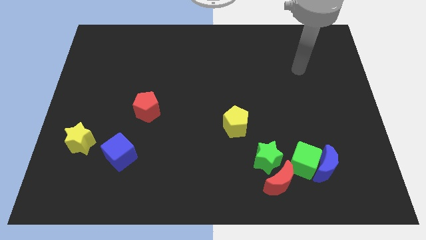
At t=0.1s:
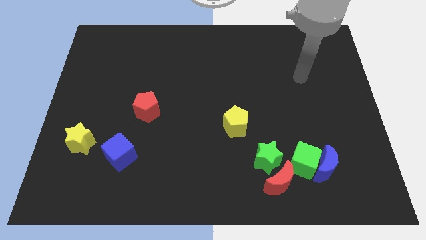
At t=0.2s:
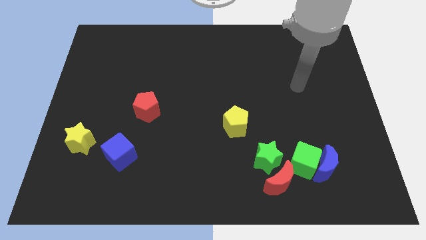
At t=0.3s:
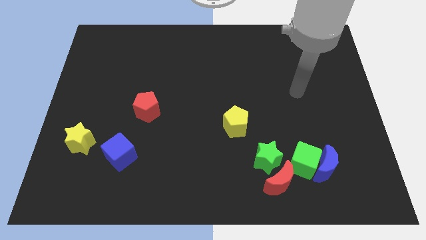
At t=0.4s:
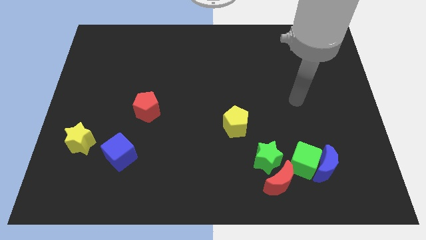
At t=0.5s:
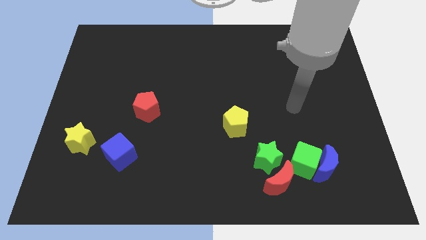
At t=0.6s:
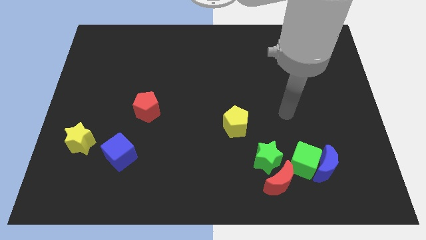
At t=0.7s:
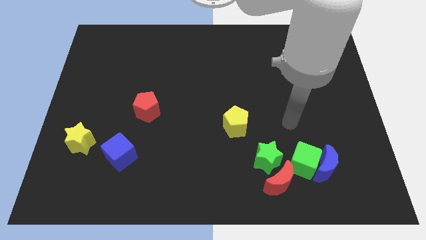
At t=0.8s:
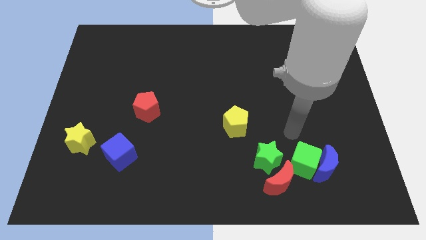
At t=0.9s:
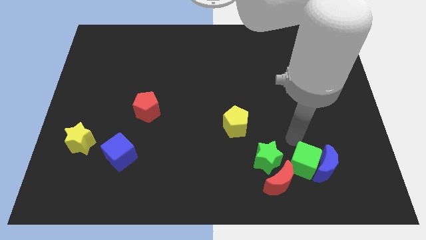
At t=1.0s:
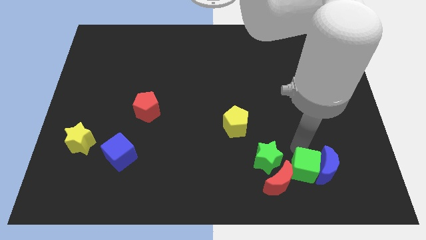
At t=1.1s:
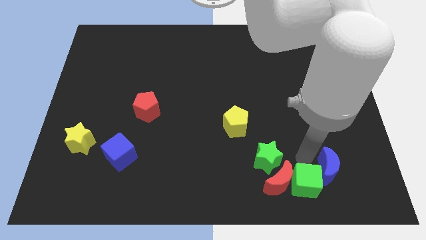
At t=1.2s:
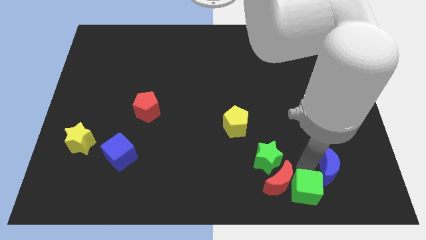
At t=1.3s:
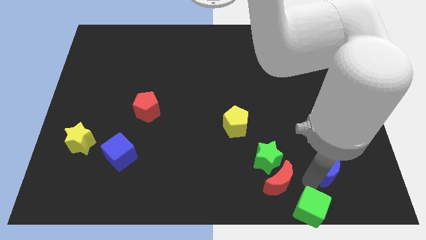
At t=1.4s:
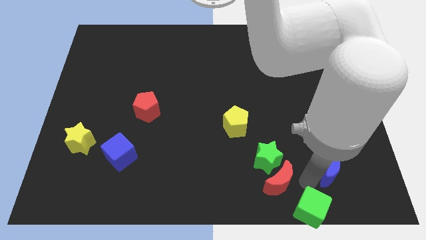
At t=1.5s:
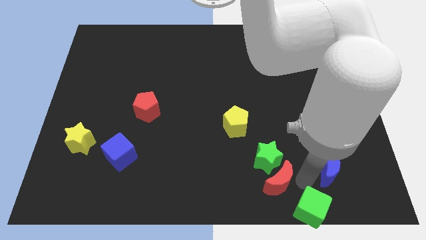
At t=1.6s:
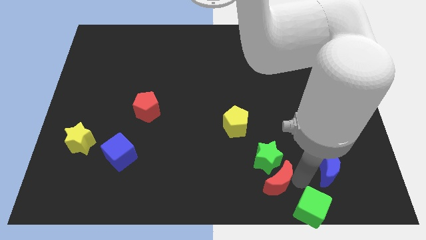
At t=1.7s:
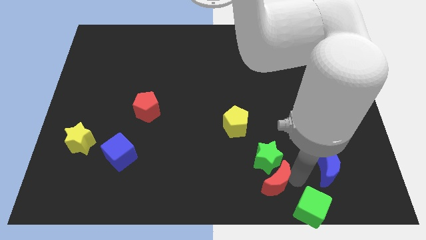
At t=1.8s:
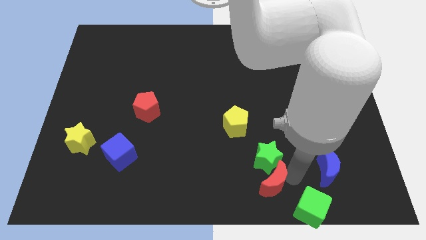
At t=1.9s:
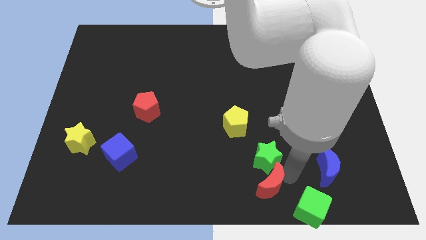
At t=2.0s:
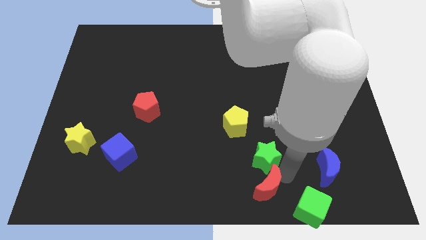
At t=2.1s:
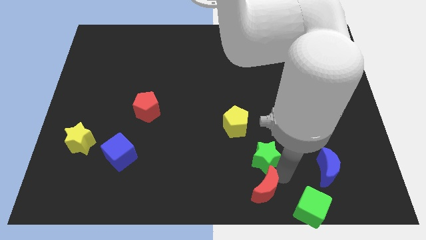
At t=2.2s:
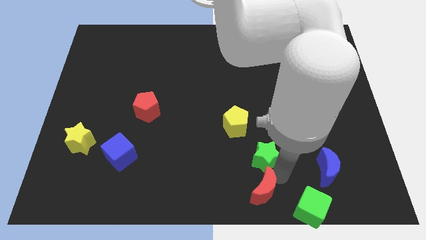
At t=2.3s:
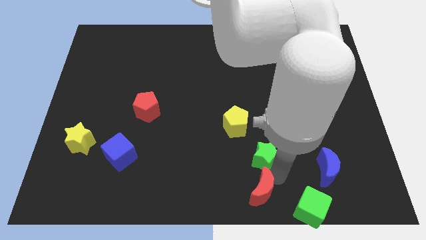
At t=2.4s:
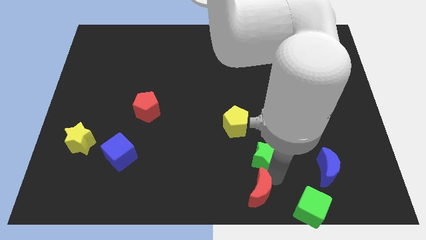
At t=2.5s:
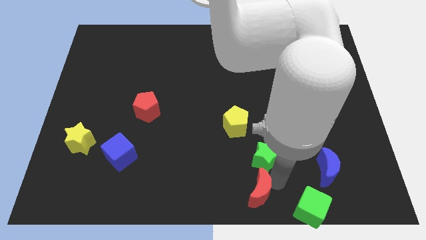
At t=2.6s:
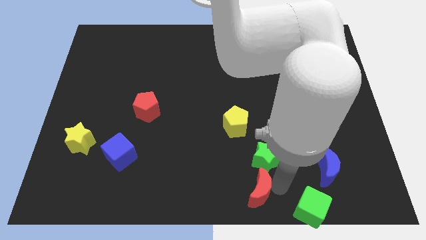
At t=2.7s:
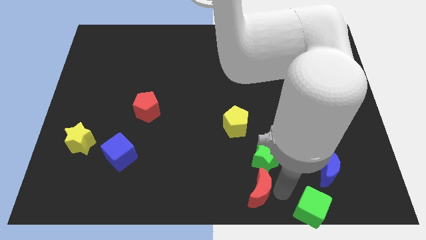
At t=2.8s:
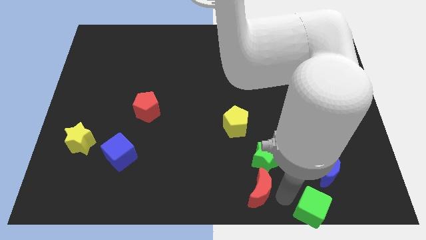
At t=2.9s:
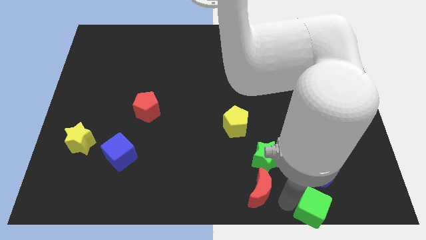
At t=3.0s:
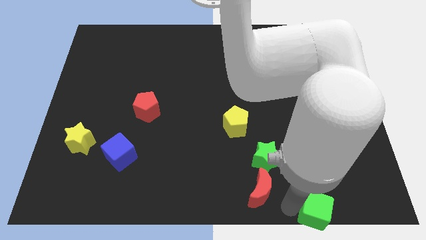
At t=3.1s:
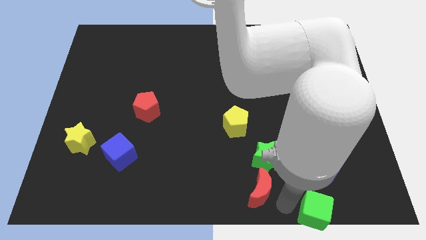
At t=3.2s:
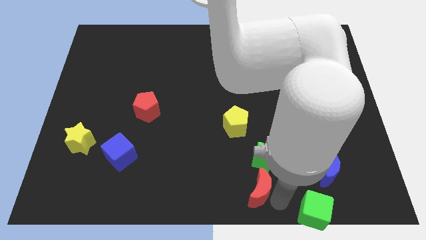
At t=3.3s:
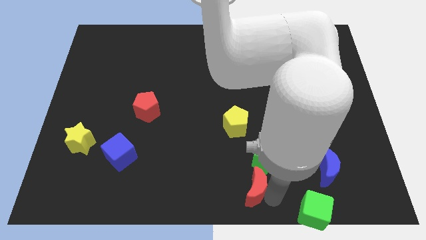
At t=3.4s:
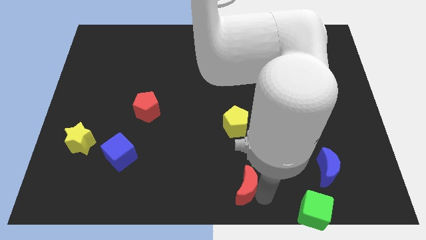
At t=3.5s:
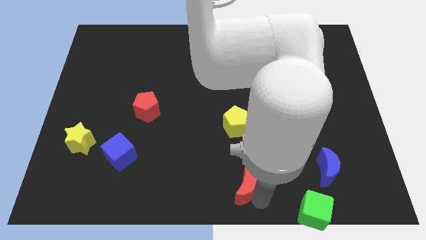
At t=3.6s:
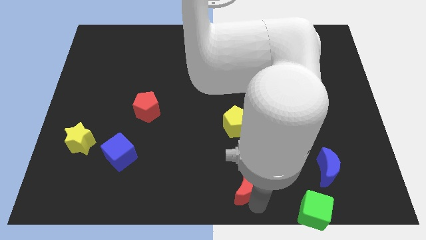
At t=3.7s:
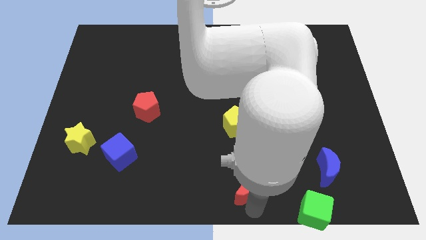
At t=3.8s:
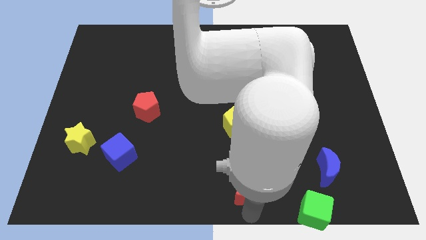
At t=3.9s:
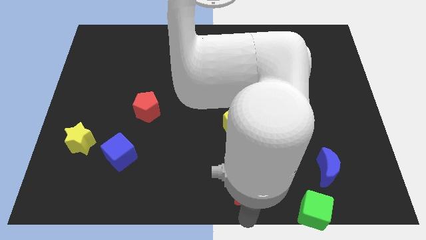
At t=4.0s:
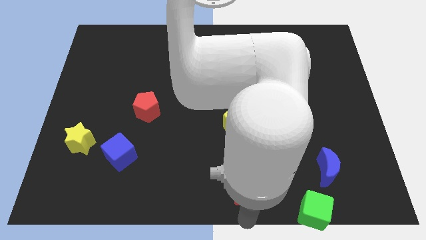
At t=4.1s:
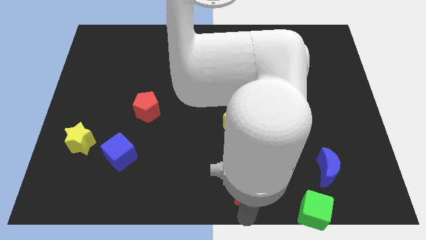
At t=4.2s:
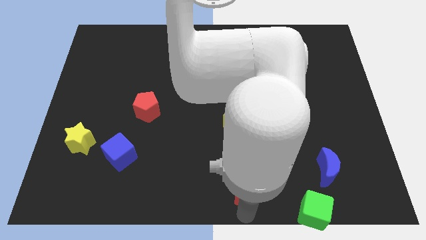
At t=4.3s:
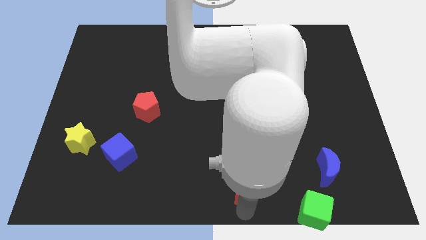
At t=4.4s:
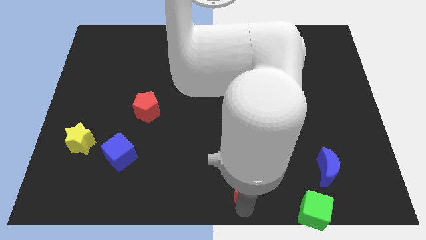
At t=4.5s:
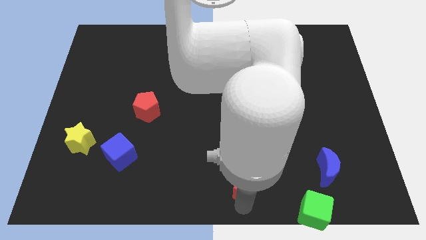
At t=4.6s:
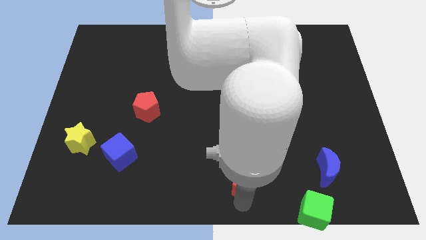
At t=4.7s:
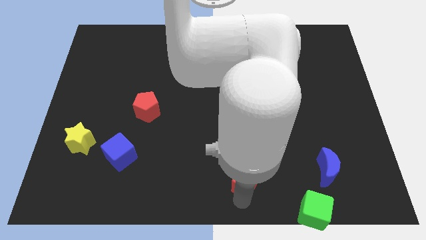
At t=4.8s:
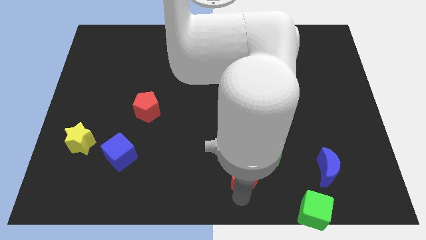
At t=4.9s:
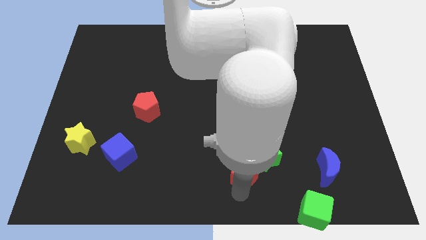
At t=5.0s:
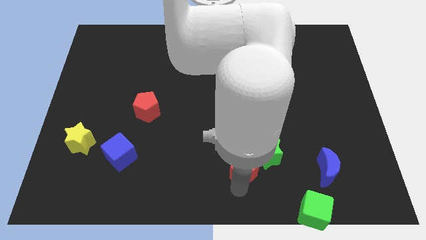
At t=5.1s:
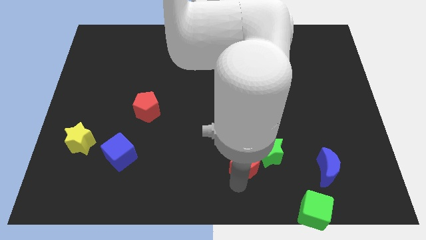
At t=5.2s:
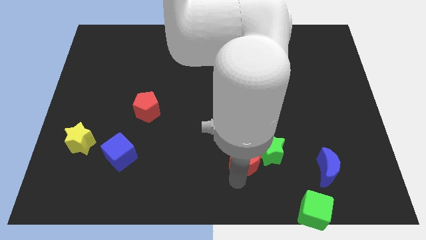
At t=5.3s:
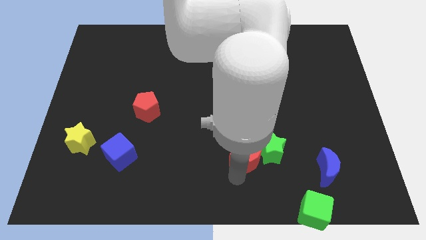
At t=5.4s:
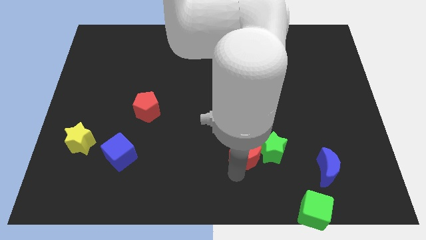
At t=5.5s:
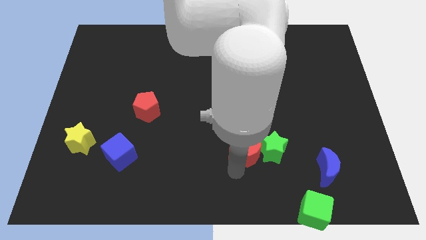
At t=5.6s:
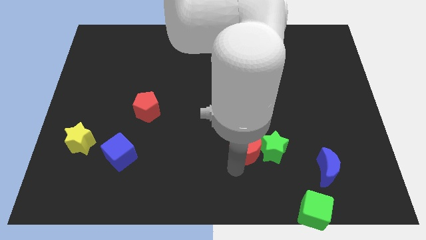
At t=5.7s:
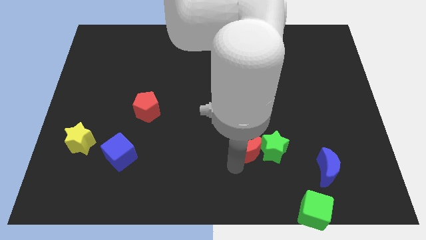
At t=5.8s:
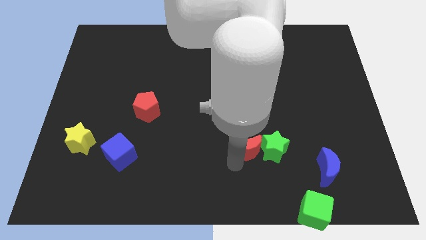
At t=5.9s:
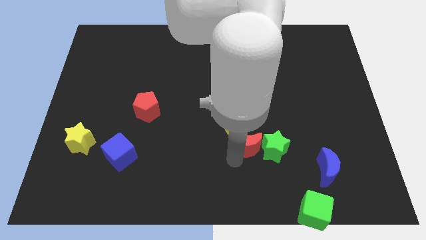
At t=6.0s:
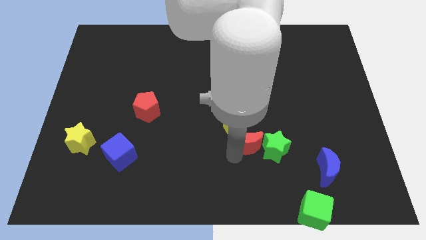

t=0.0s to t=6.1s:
slightly slide the red moon up

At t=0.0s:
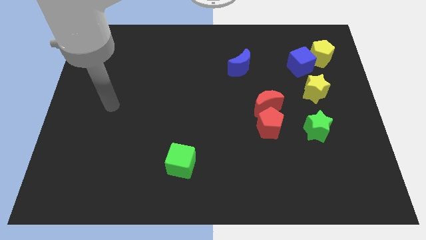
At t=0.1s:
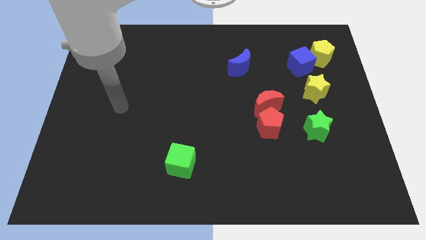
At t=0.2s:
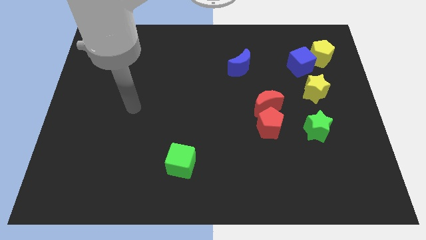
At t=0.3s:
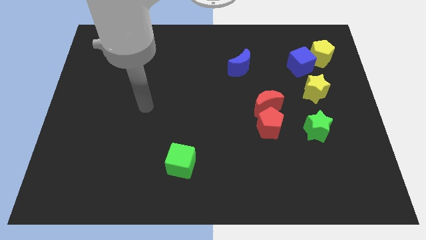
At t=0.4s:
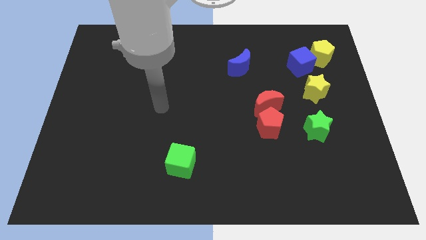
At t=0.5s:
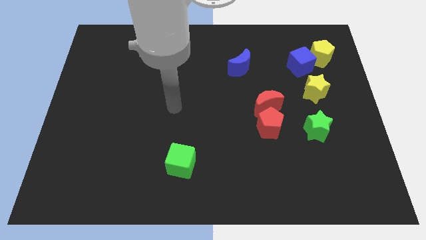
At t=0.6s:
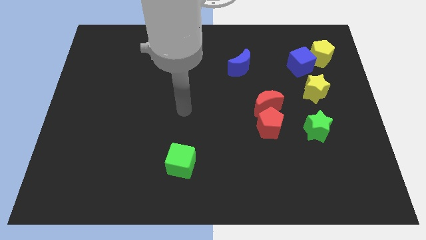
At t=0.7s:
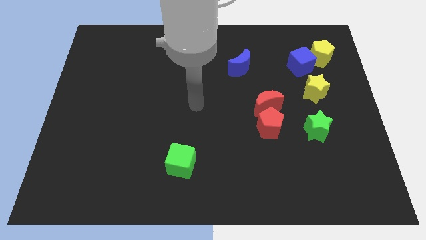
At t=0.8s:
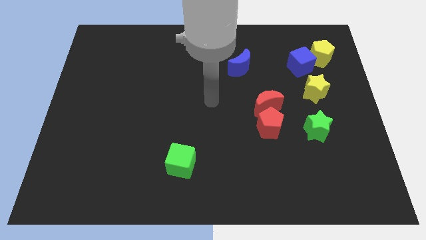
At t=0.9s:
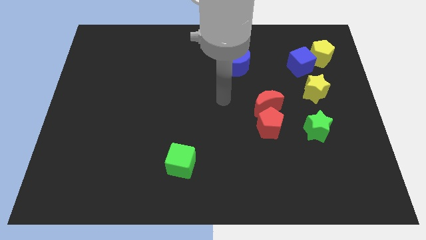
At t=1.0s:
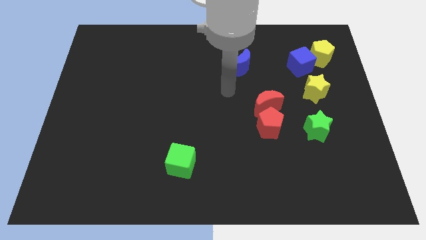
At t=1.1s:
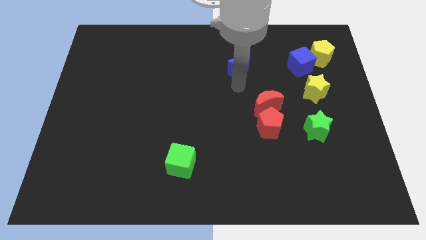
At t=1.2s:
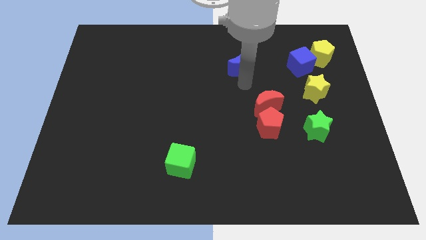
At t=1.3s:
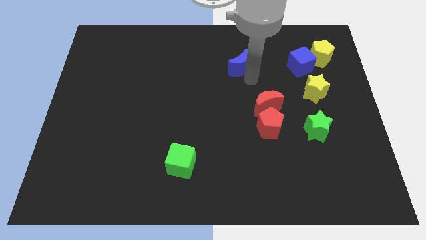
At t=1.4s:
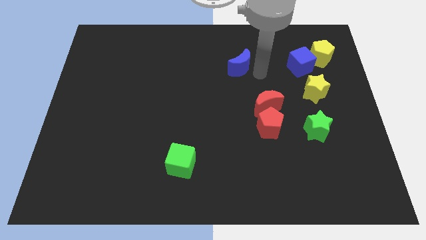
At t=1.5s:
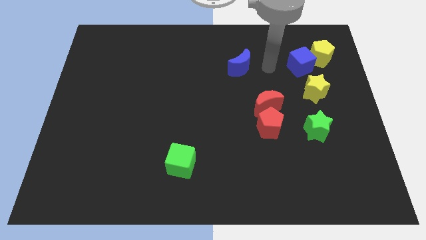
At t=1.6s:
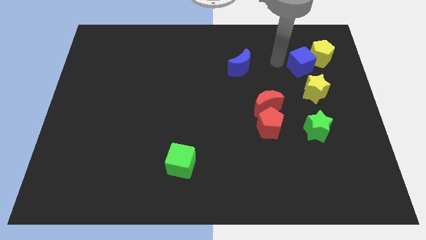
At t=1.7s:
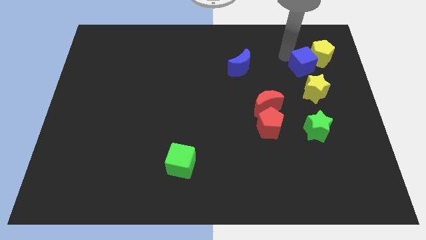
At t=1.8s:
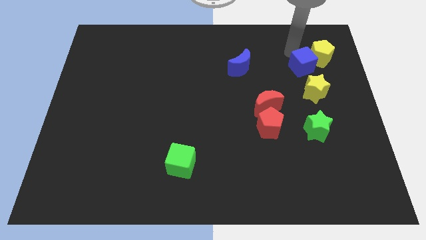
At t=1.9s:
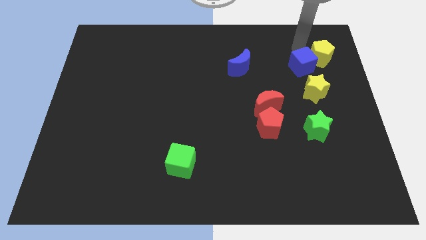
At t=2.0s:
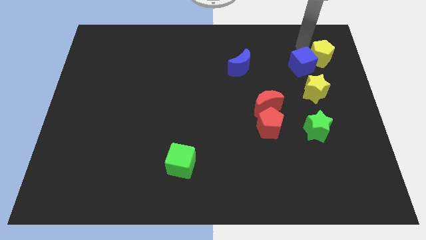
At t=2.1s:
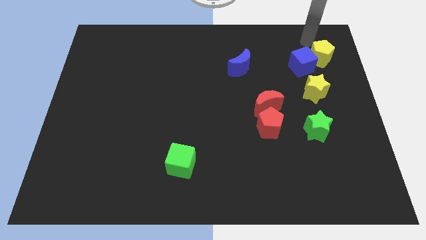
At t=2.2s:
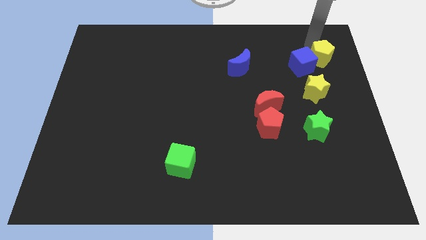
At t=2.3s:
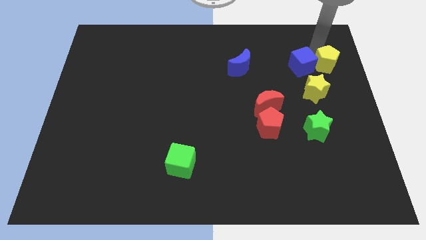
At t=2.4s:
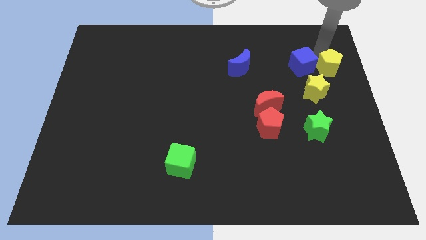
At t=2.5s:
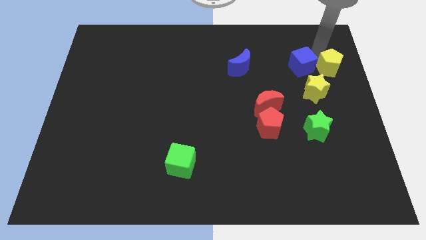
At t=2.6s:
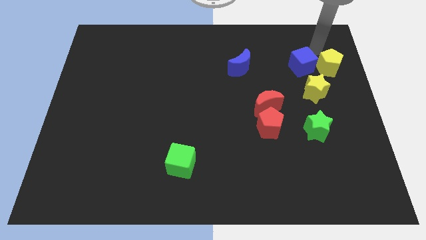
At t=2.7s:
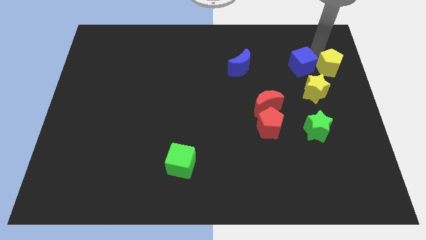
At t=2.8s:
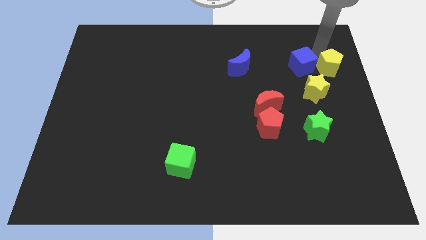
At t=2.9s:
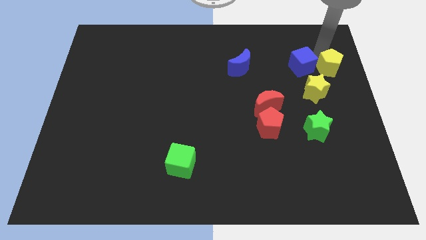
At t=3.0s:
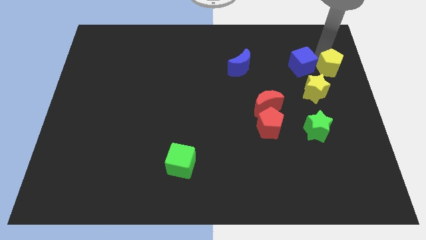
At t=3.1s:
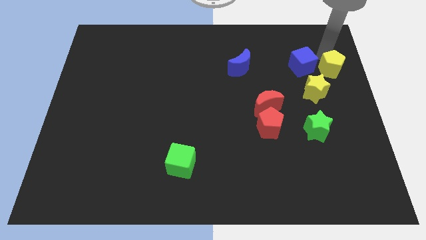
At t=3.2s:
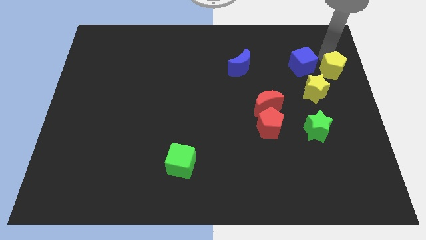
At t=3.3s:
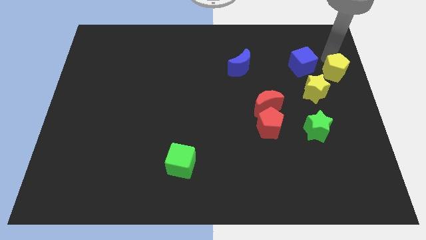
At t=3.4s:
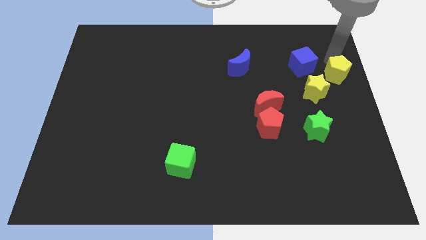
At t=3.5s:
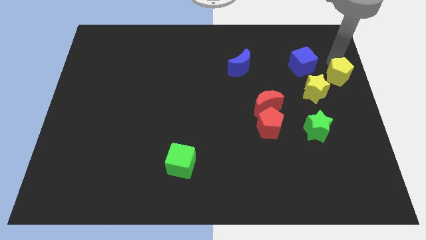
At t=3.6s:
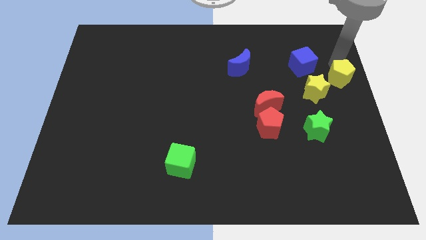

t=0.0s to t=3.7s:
move the yellow pentagon downwards somewhat
